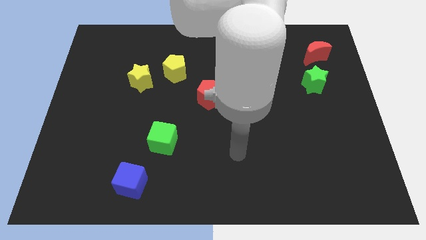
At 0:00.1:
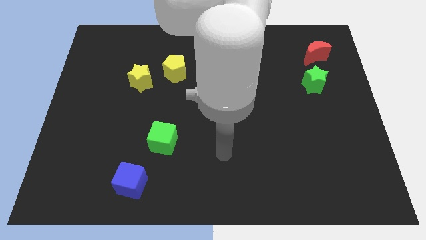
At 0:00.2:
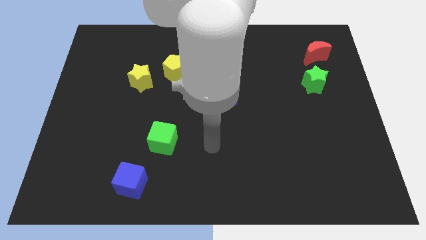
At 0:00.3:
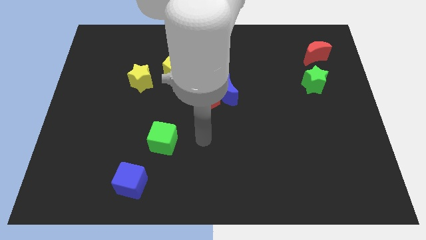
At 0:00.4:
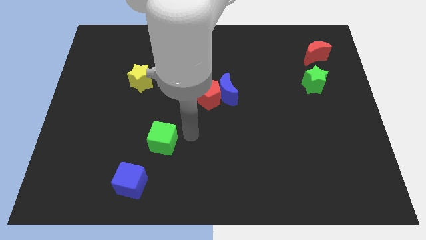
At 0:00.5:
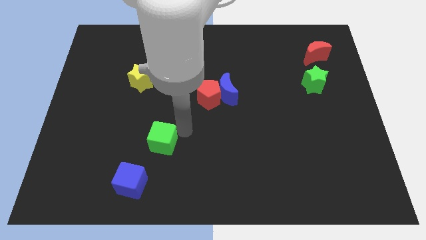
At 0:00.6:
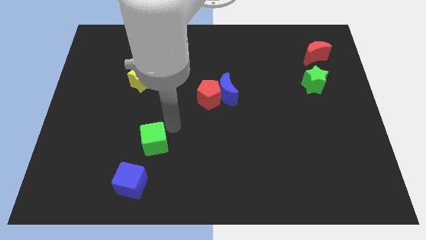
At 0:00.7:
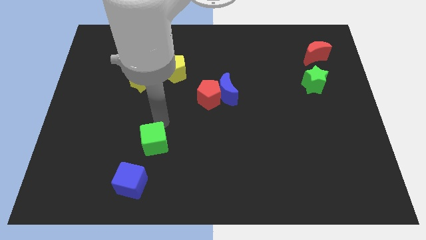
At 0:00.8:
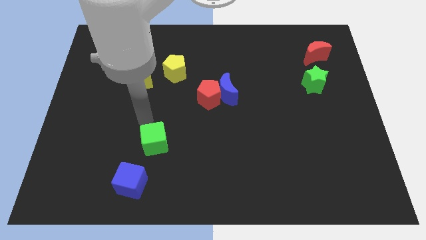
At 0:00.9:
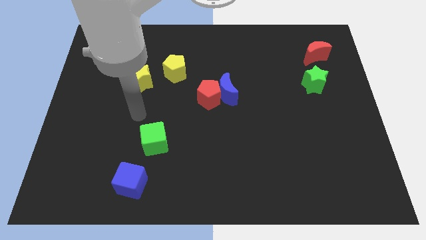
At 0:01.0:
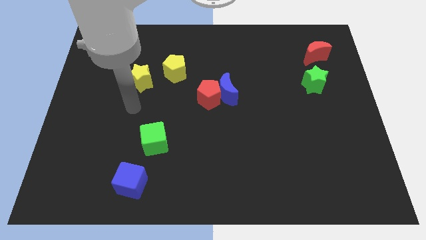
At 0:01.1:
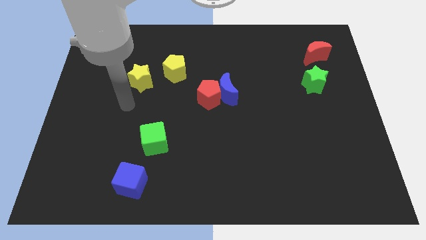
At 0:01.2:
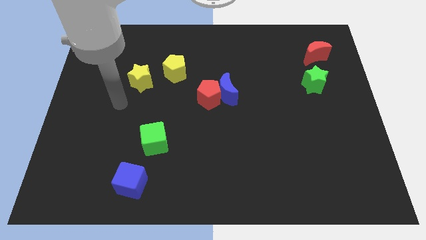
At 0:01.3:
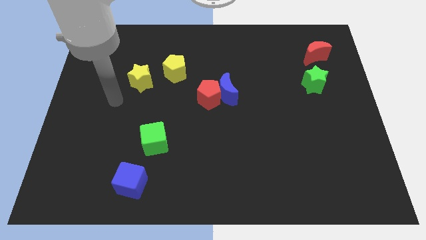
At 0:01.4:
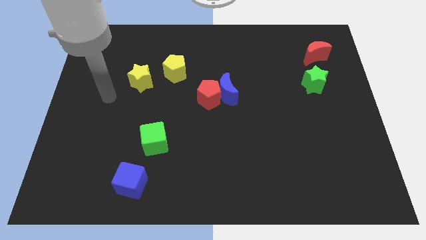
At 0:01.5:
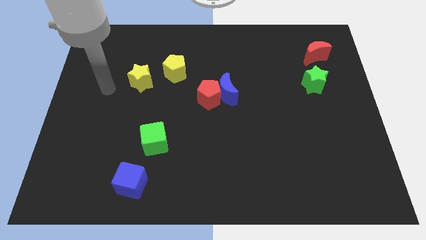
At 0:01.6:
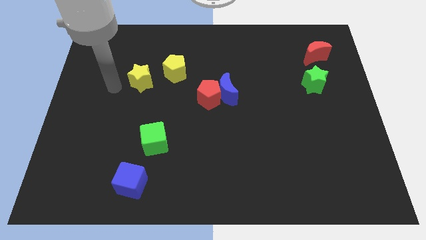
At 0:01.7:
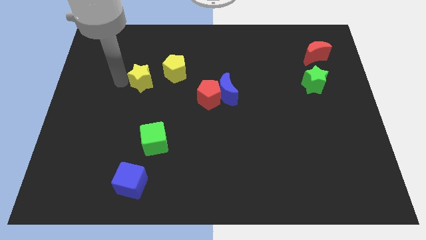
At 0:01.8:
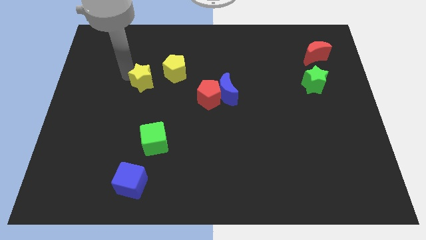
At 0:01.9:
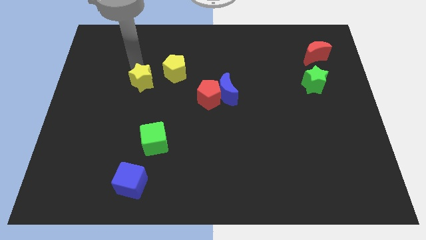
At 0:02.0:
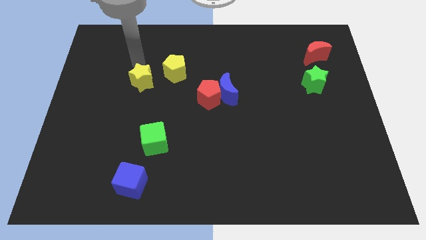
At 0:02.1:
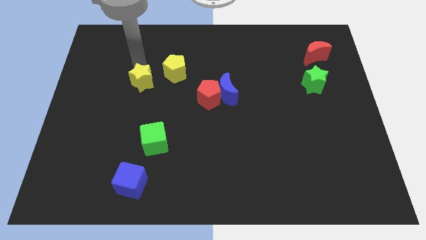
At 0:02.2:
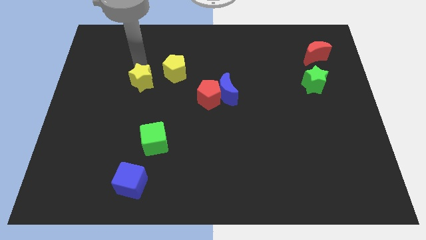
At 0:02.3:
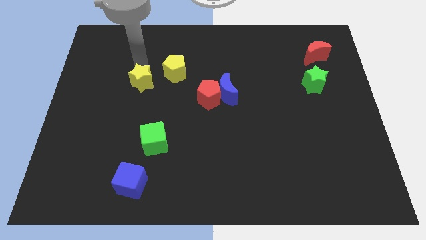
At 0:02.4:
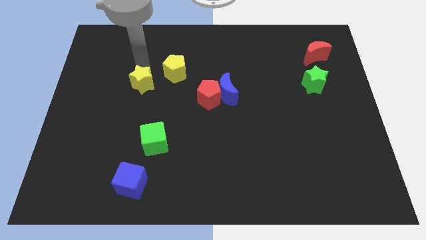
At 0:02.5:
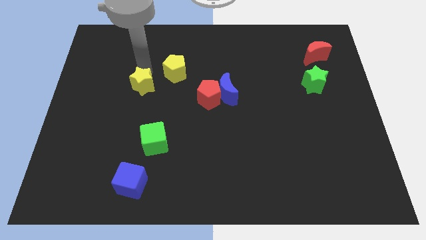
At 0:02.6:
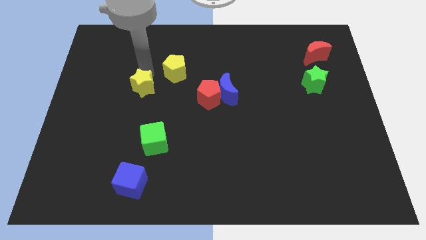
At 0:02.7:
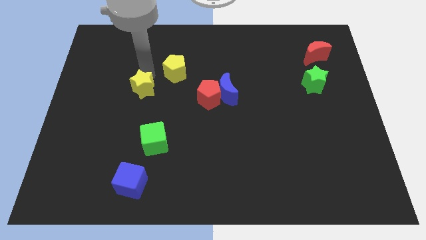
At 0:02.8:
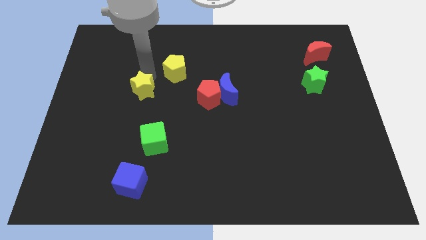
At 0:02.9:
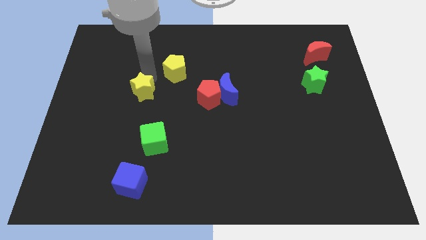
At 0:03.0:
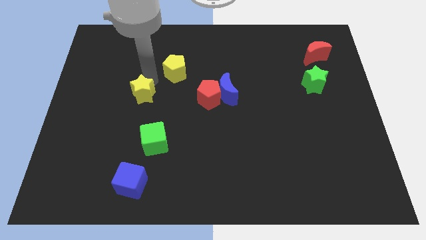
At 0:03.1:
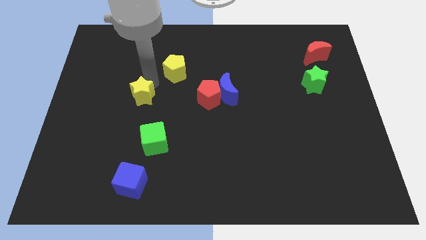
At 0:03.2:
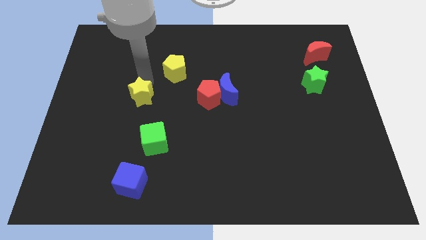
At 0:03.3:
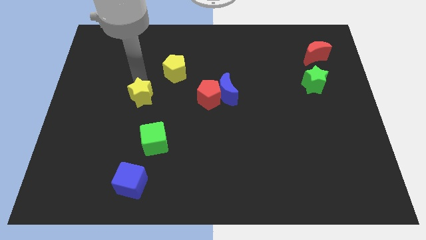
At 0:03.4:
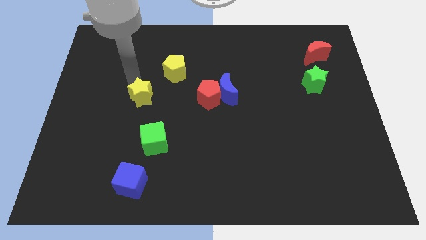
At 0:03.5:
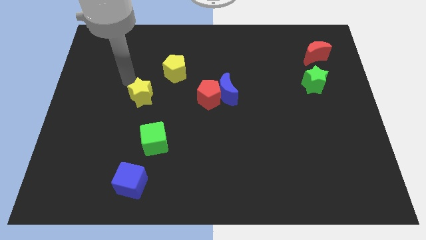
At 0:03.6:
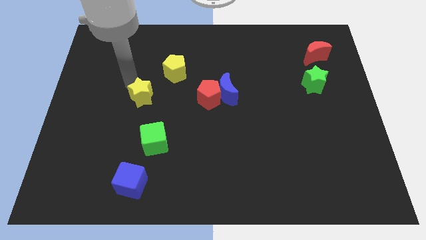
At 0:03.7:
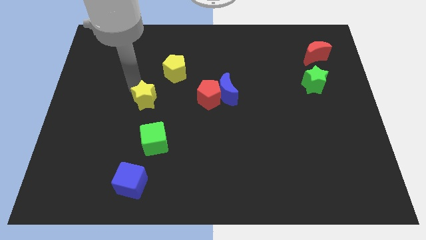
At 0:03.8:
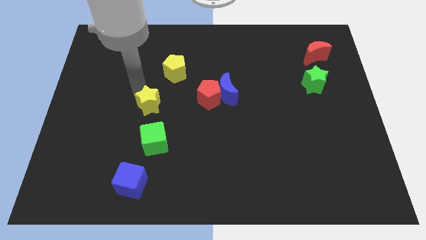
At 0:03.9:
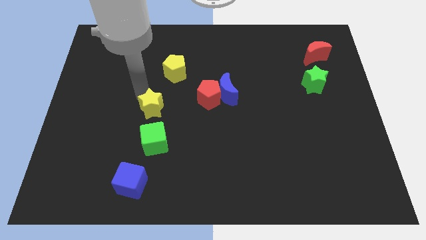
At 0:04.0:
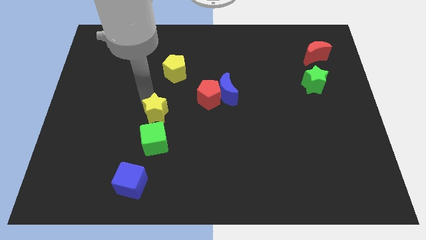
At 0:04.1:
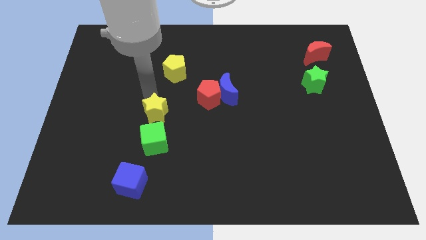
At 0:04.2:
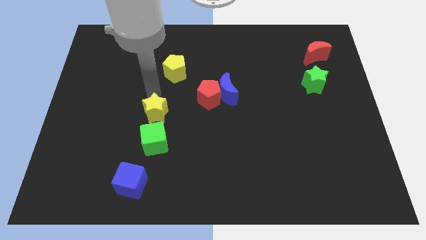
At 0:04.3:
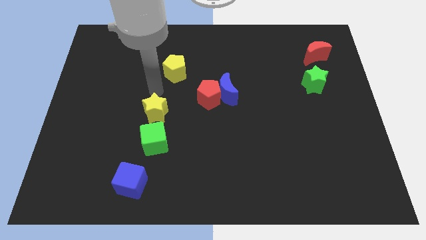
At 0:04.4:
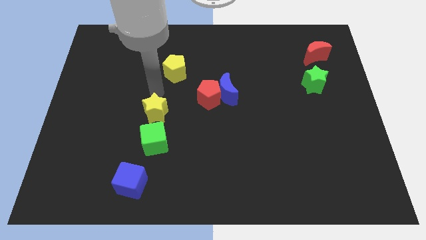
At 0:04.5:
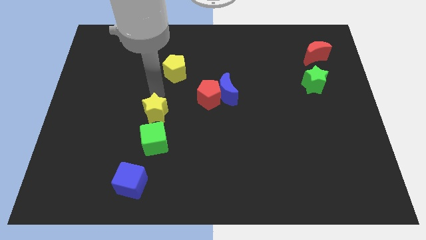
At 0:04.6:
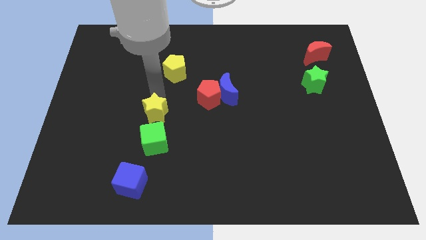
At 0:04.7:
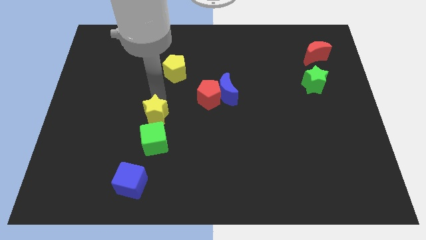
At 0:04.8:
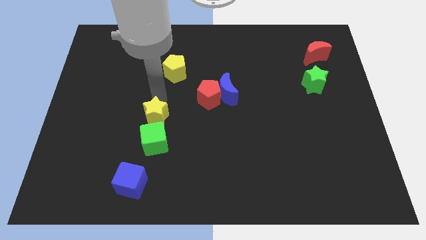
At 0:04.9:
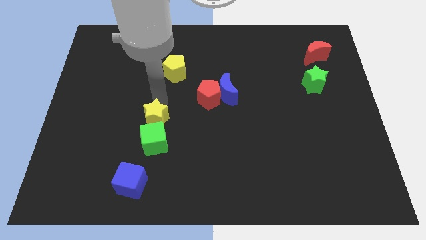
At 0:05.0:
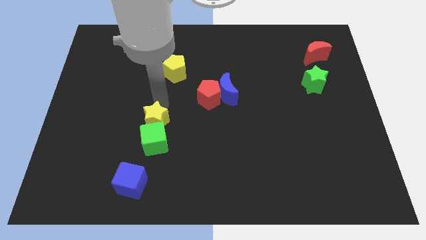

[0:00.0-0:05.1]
put the yellow star next to the green cube

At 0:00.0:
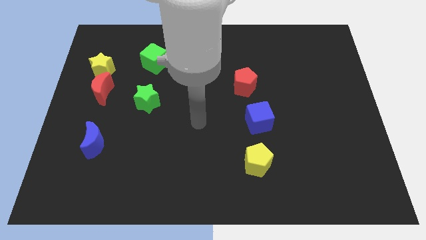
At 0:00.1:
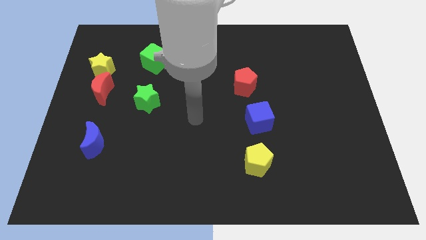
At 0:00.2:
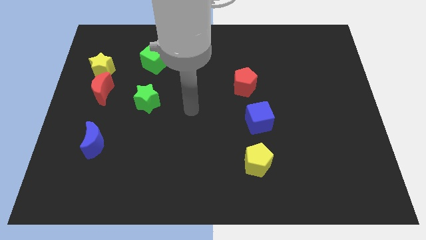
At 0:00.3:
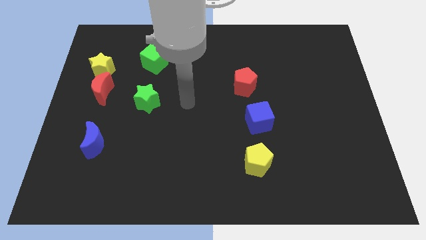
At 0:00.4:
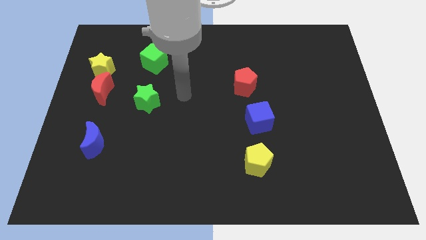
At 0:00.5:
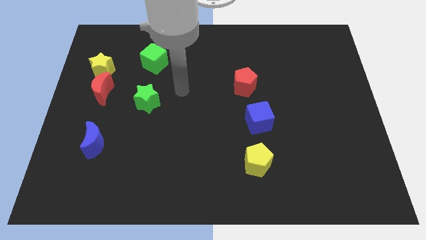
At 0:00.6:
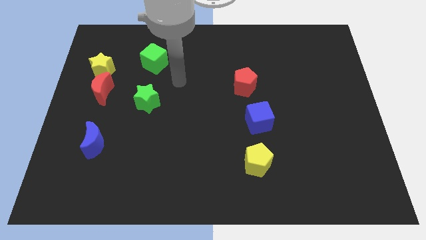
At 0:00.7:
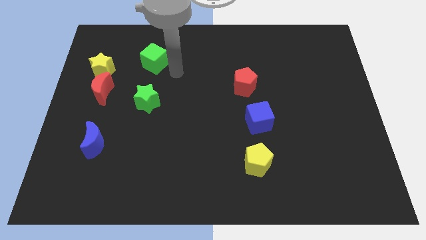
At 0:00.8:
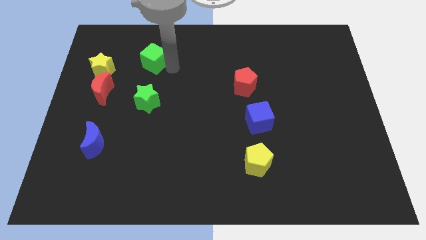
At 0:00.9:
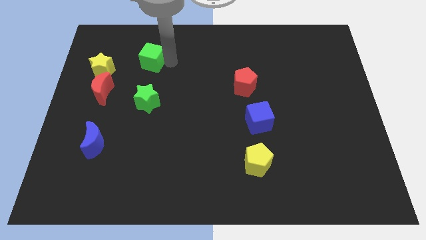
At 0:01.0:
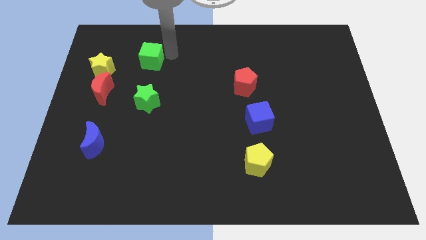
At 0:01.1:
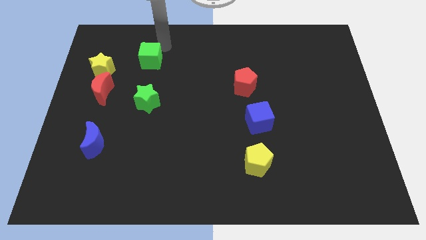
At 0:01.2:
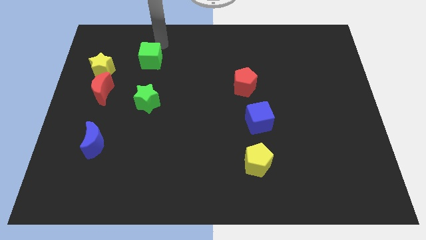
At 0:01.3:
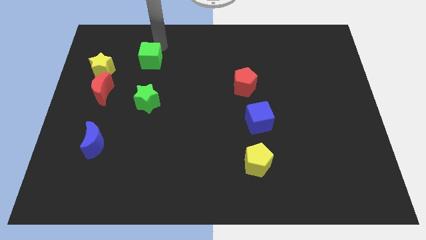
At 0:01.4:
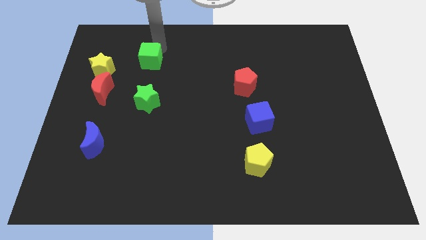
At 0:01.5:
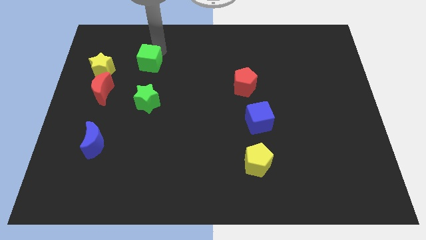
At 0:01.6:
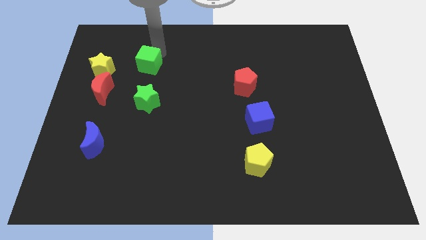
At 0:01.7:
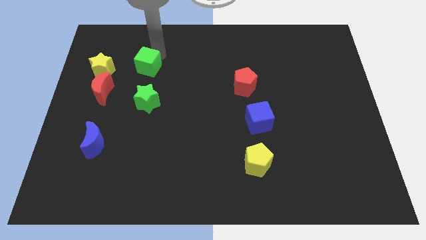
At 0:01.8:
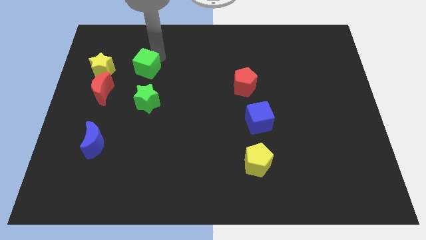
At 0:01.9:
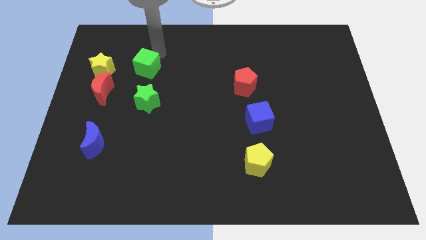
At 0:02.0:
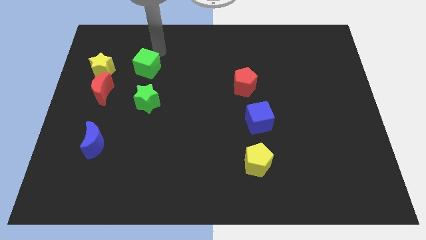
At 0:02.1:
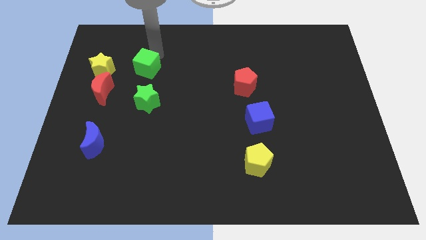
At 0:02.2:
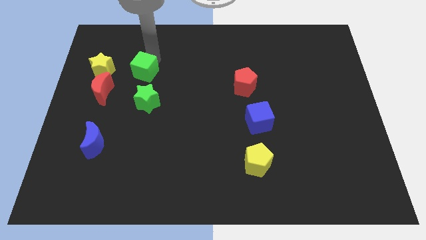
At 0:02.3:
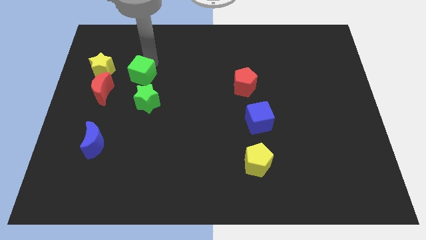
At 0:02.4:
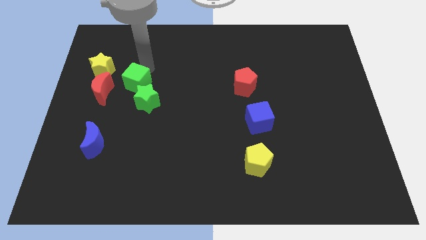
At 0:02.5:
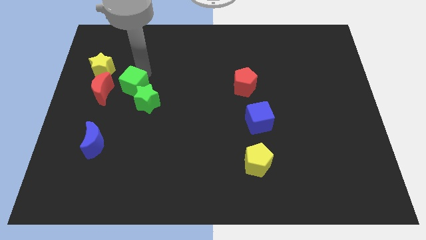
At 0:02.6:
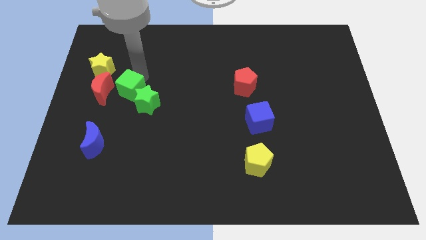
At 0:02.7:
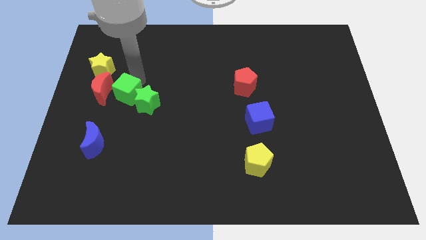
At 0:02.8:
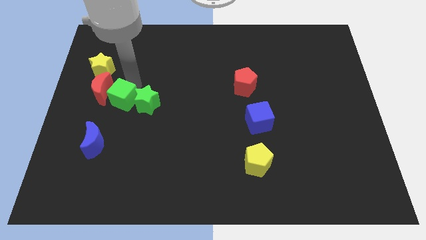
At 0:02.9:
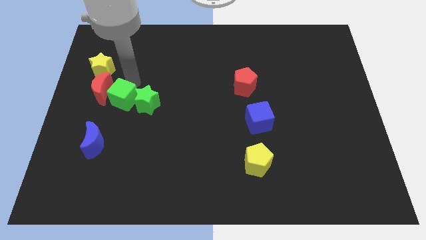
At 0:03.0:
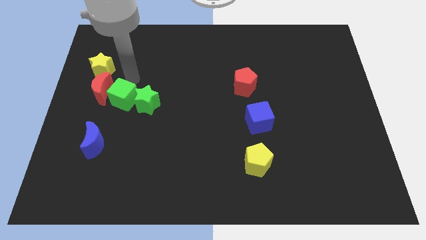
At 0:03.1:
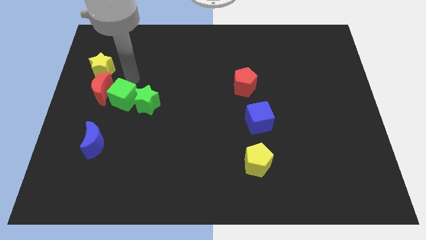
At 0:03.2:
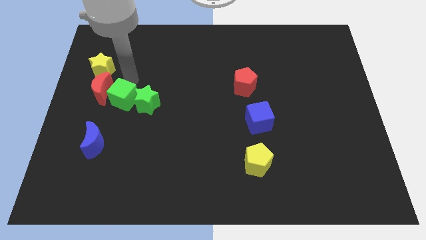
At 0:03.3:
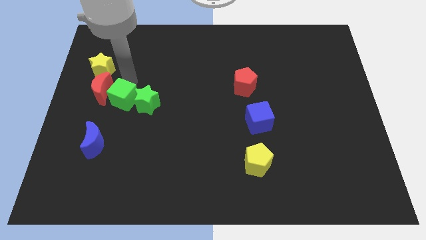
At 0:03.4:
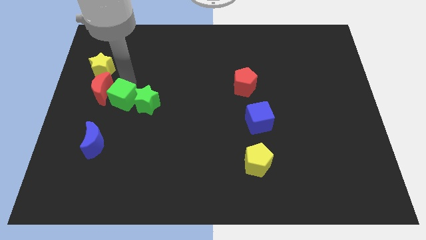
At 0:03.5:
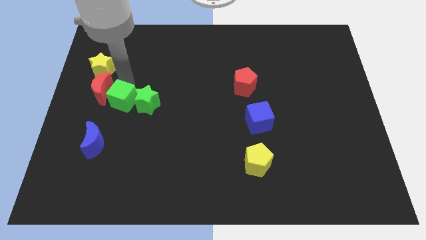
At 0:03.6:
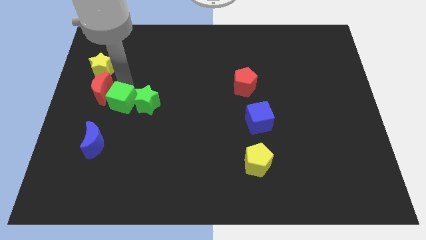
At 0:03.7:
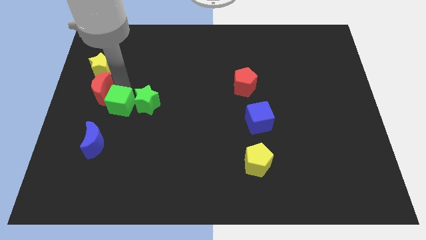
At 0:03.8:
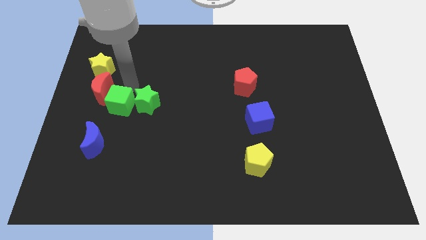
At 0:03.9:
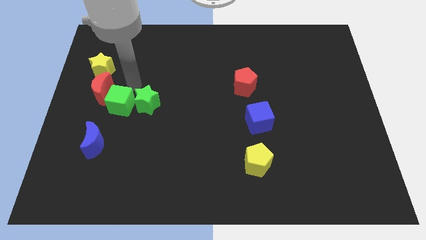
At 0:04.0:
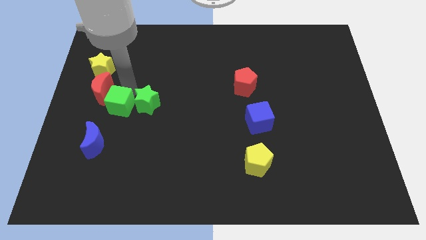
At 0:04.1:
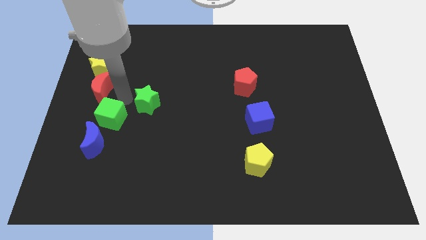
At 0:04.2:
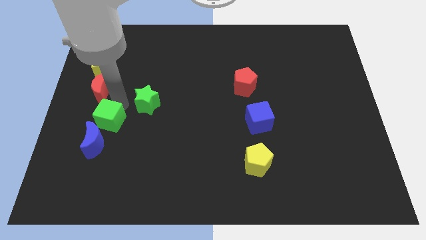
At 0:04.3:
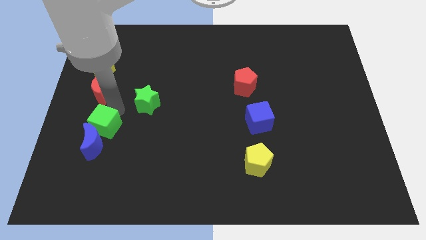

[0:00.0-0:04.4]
put the green cube close to the blue moon
